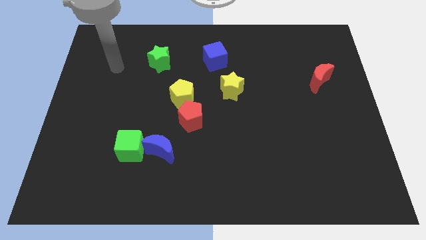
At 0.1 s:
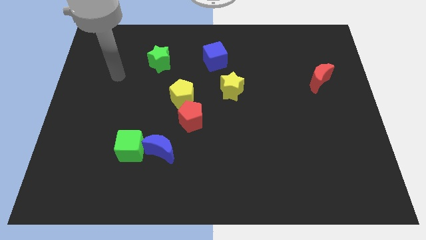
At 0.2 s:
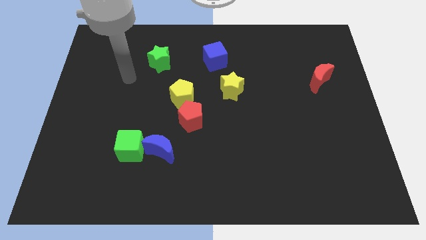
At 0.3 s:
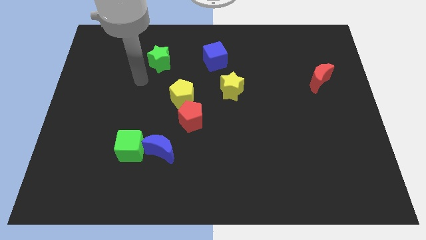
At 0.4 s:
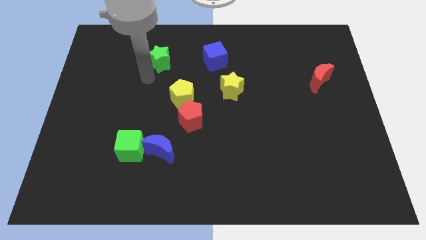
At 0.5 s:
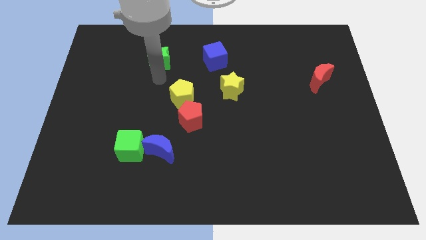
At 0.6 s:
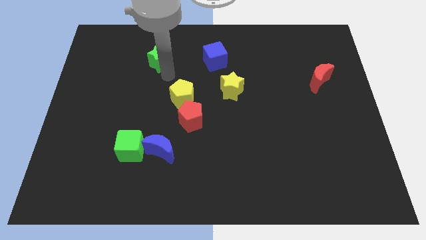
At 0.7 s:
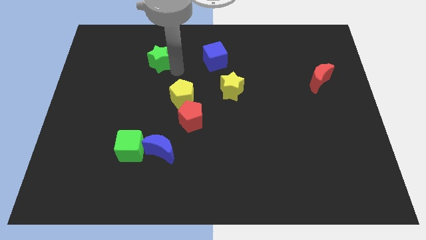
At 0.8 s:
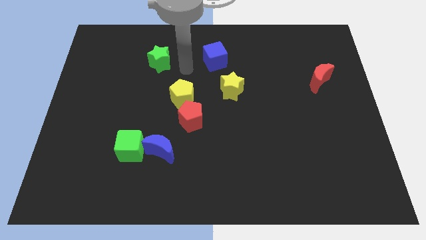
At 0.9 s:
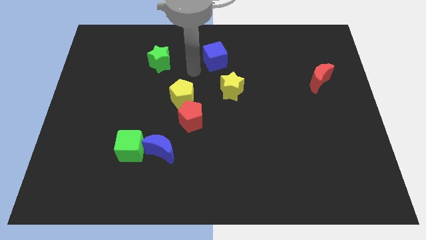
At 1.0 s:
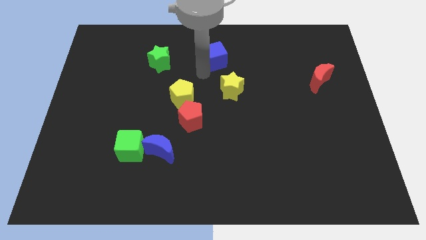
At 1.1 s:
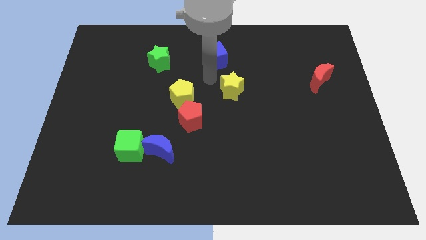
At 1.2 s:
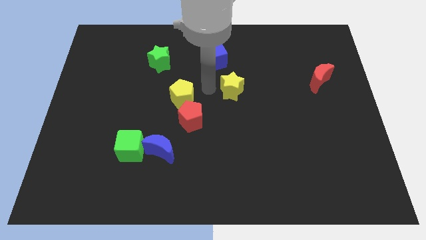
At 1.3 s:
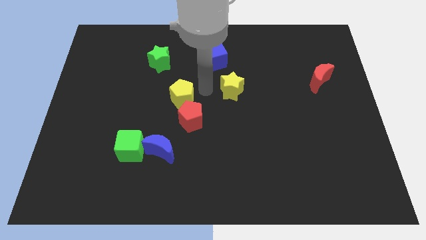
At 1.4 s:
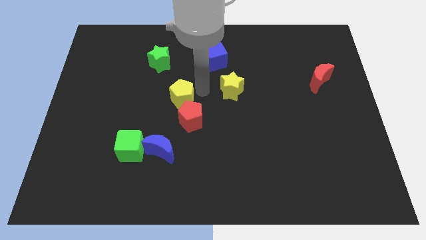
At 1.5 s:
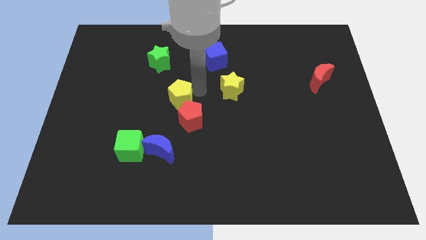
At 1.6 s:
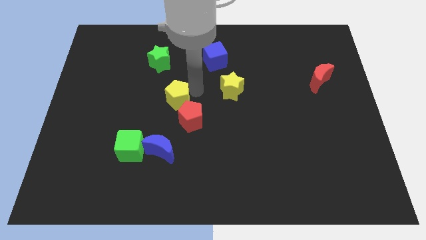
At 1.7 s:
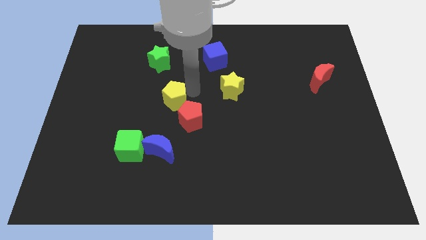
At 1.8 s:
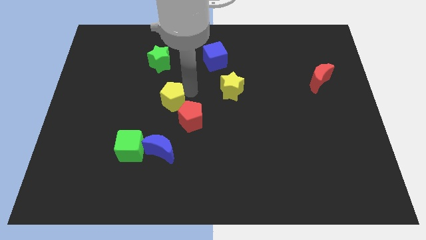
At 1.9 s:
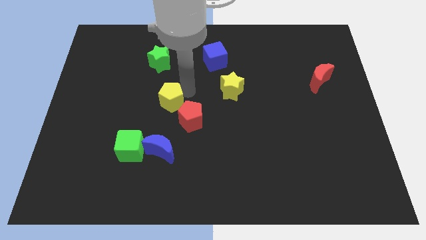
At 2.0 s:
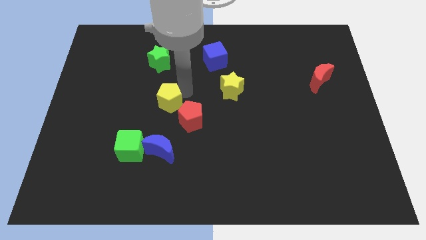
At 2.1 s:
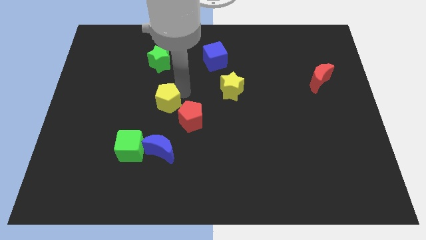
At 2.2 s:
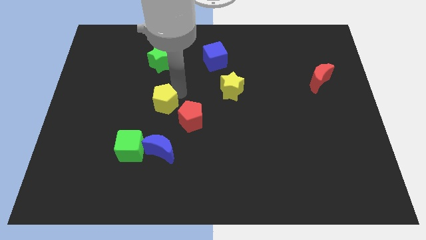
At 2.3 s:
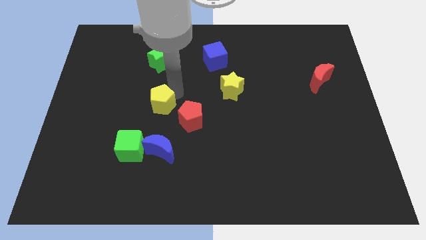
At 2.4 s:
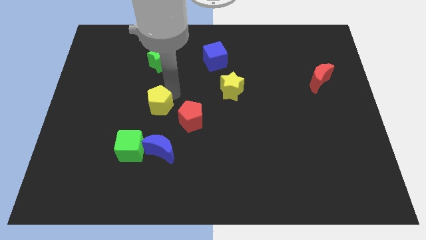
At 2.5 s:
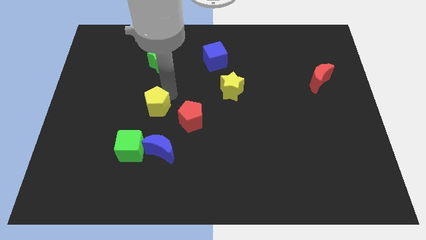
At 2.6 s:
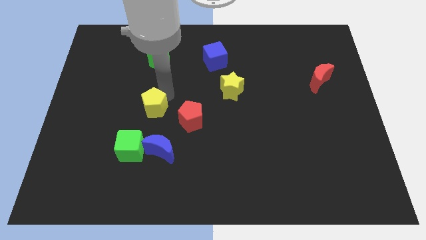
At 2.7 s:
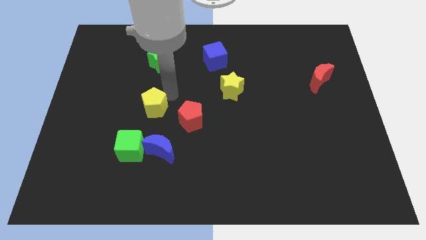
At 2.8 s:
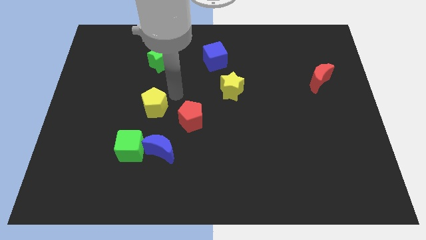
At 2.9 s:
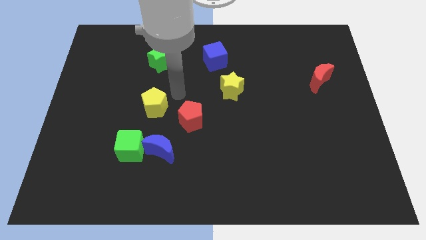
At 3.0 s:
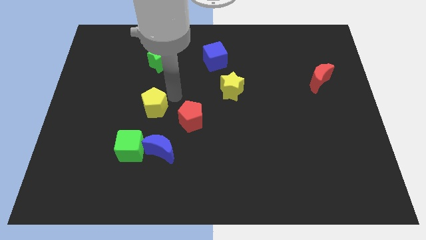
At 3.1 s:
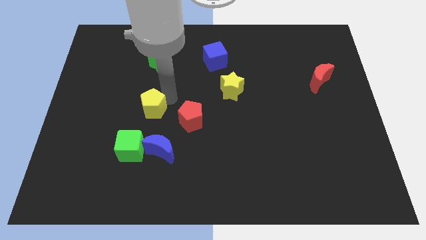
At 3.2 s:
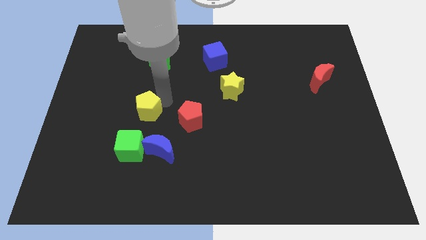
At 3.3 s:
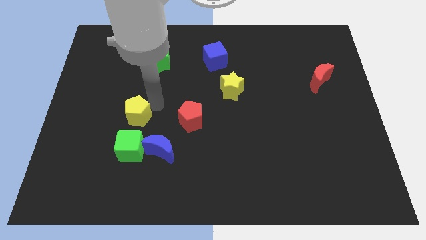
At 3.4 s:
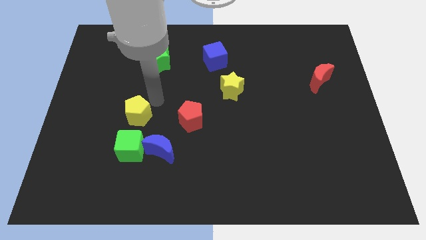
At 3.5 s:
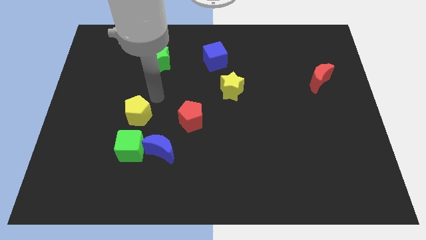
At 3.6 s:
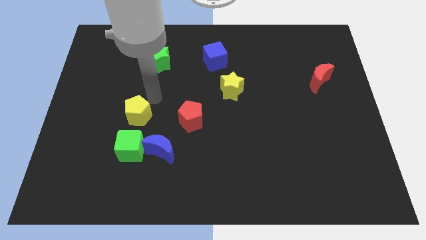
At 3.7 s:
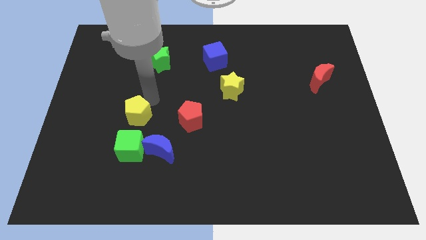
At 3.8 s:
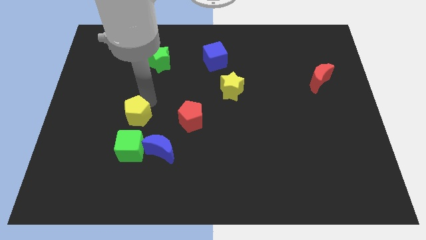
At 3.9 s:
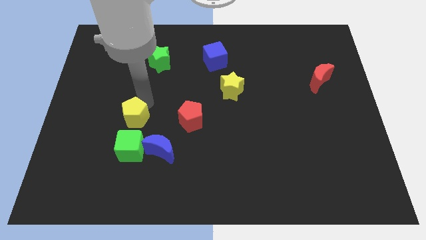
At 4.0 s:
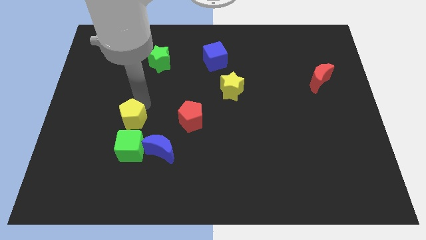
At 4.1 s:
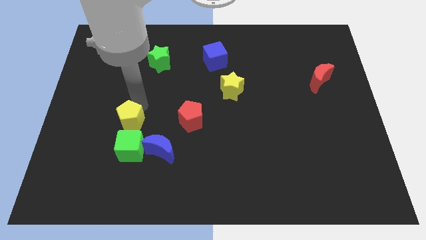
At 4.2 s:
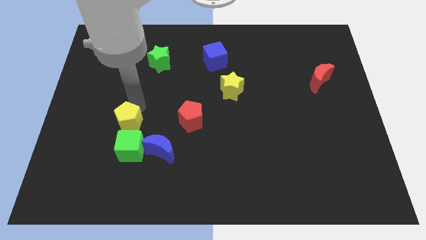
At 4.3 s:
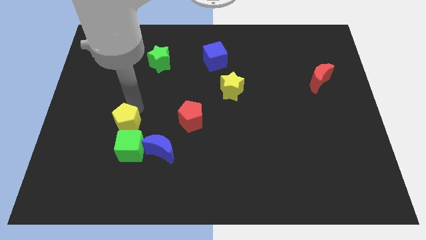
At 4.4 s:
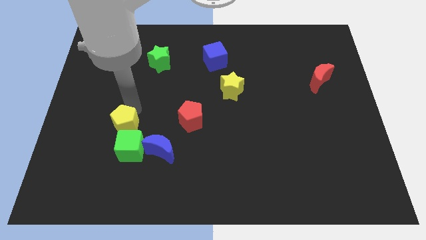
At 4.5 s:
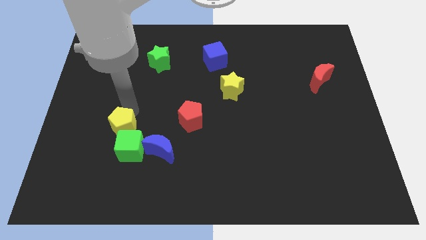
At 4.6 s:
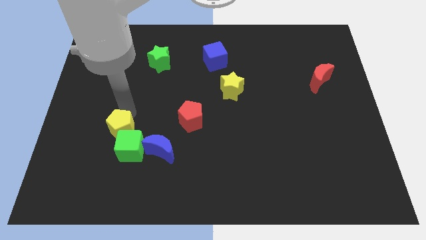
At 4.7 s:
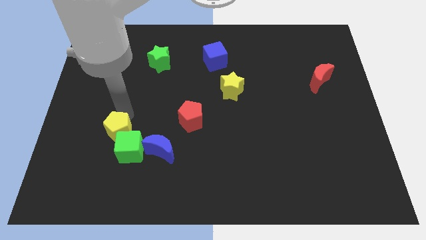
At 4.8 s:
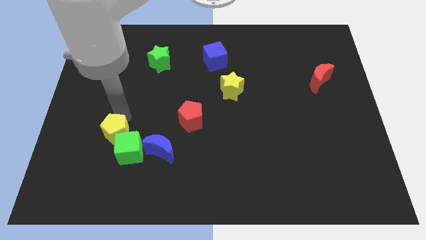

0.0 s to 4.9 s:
slide the yellow pentagon to the left side of the blue moon

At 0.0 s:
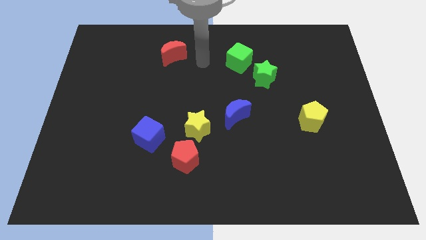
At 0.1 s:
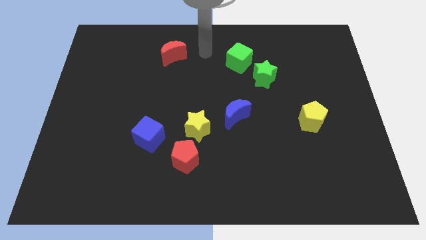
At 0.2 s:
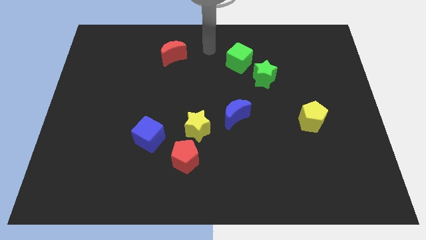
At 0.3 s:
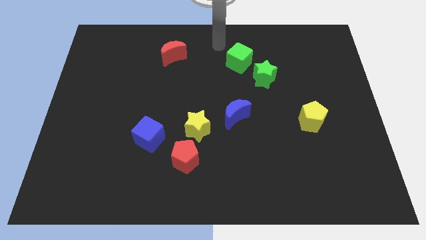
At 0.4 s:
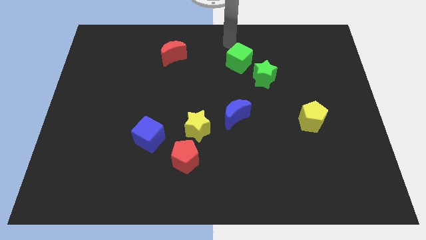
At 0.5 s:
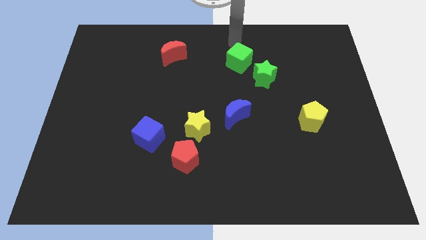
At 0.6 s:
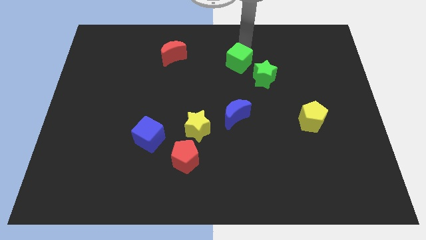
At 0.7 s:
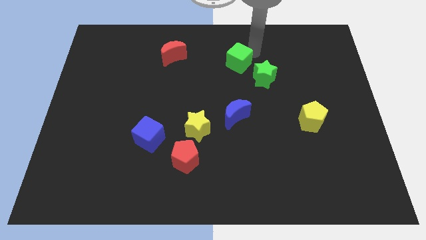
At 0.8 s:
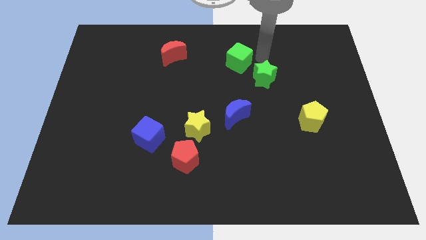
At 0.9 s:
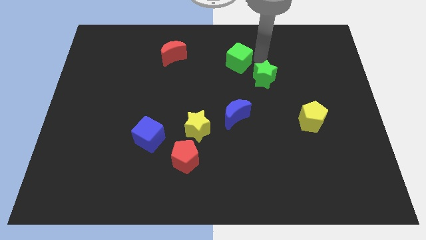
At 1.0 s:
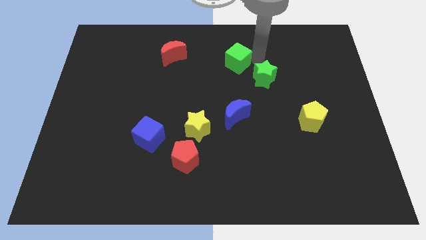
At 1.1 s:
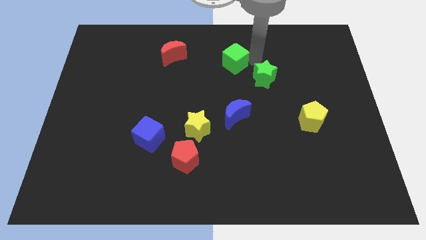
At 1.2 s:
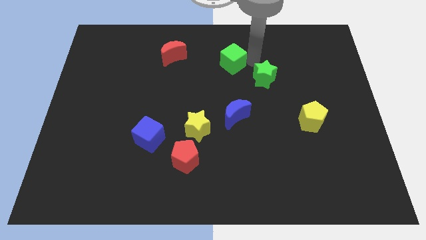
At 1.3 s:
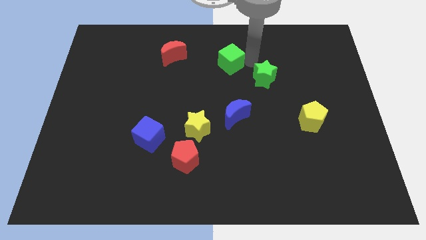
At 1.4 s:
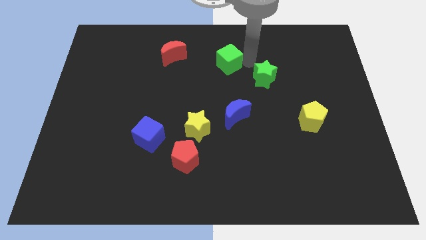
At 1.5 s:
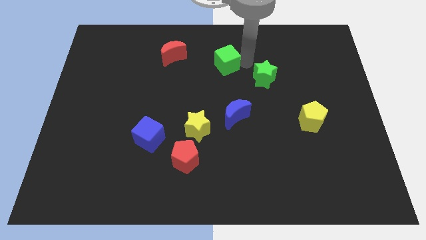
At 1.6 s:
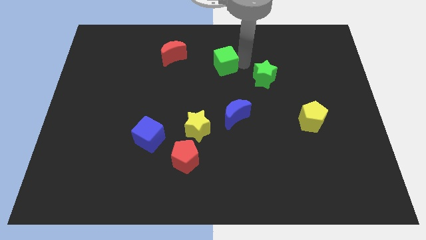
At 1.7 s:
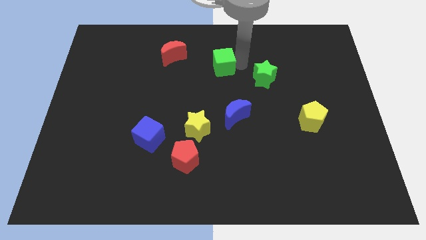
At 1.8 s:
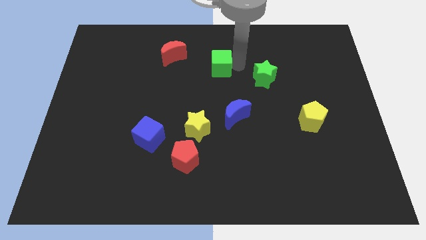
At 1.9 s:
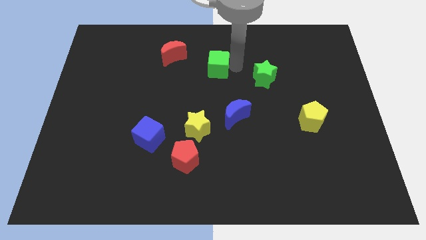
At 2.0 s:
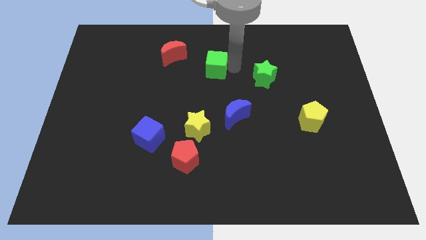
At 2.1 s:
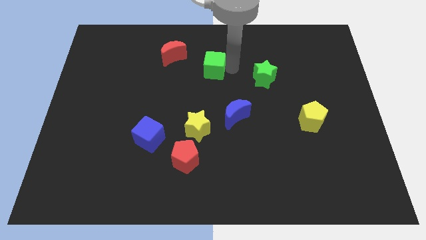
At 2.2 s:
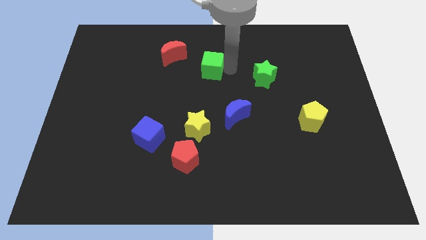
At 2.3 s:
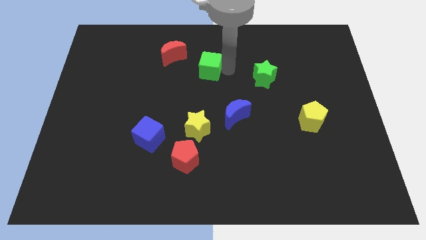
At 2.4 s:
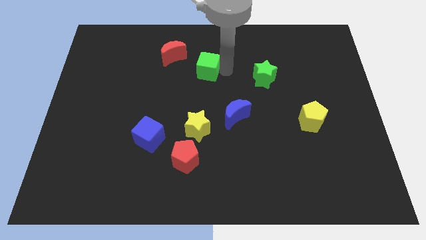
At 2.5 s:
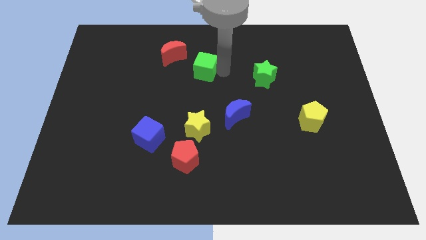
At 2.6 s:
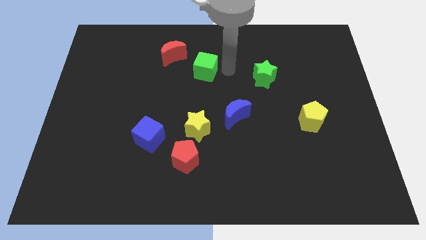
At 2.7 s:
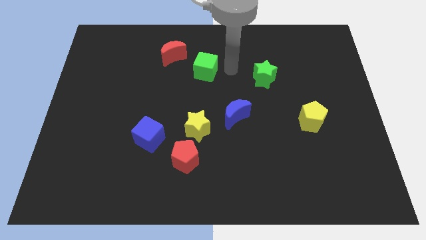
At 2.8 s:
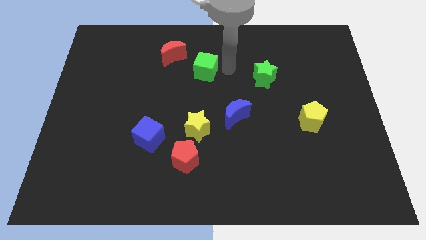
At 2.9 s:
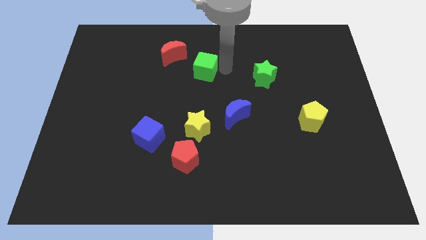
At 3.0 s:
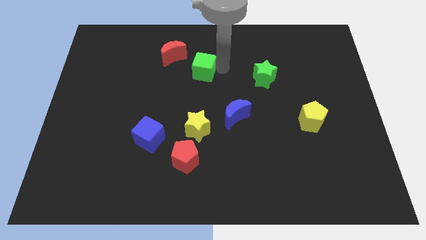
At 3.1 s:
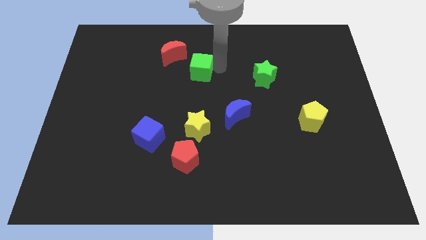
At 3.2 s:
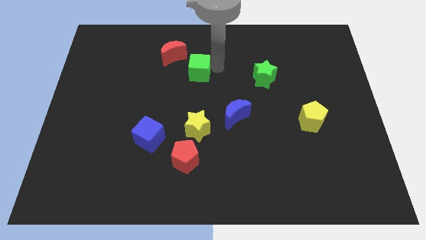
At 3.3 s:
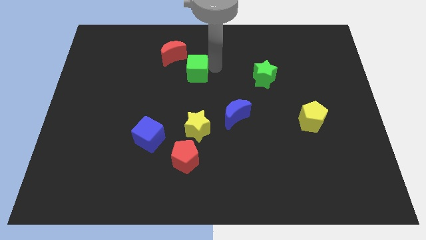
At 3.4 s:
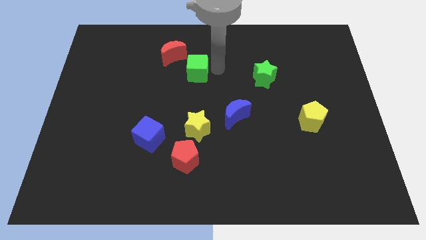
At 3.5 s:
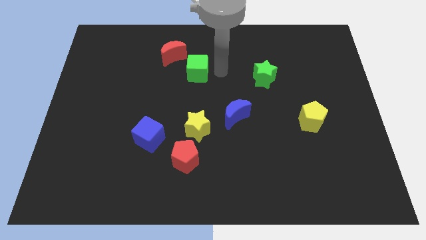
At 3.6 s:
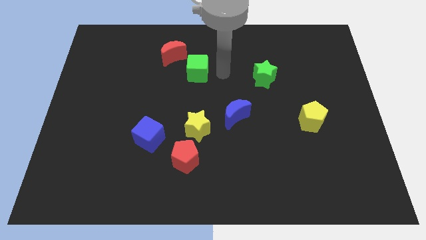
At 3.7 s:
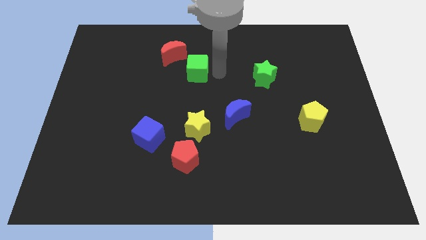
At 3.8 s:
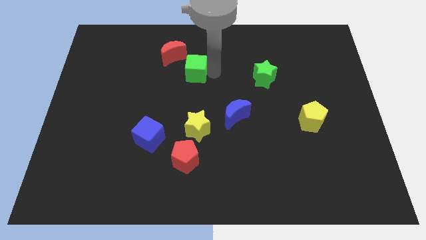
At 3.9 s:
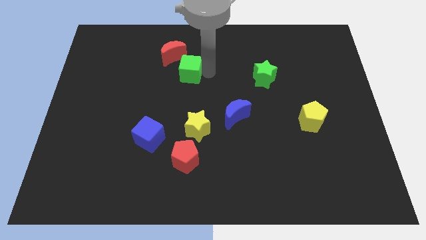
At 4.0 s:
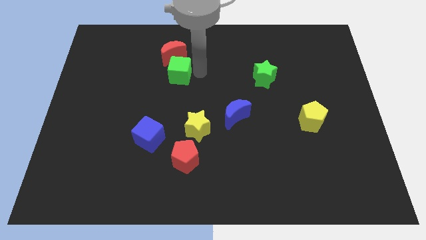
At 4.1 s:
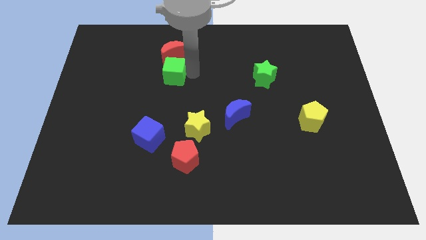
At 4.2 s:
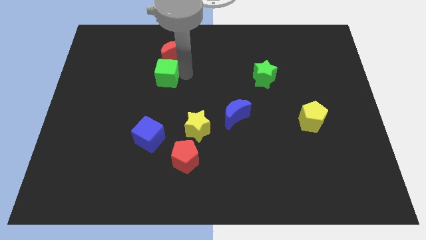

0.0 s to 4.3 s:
move the green cube diagonally down and to the left of the red moon
